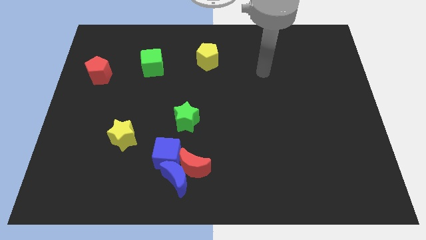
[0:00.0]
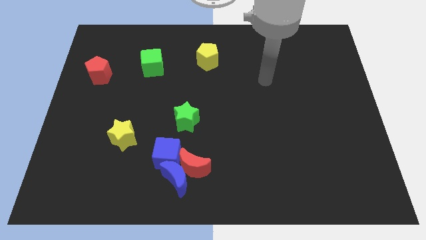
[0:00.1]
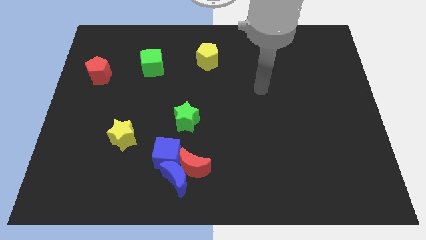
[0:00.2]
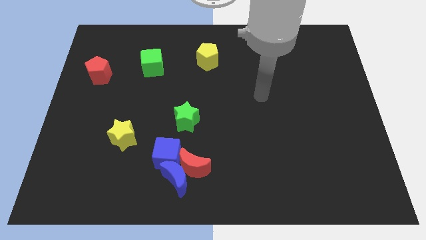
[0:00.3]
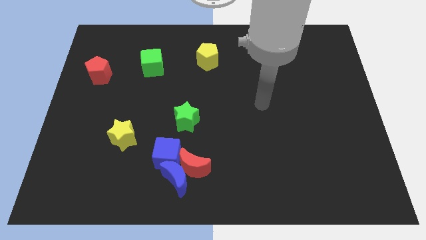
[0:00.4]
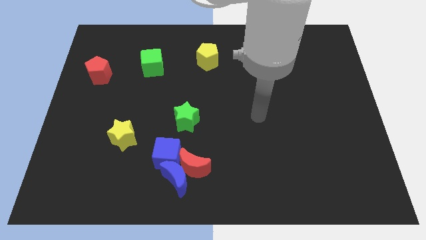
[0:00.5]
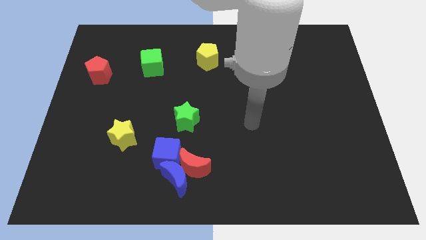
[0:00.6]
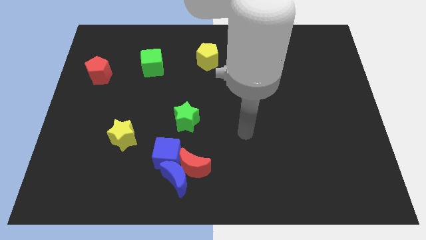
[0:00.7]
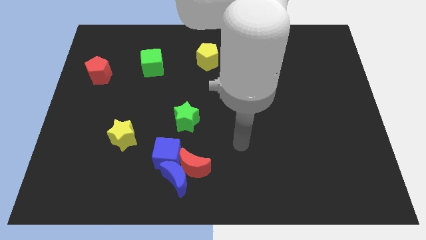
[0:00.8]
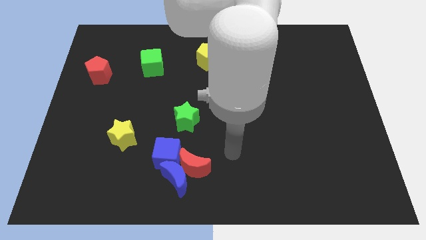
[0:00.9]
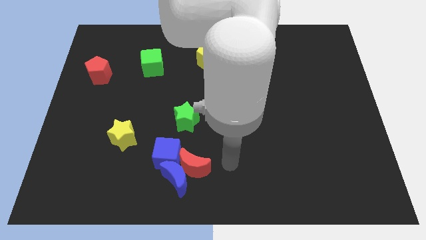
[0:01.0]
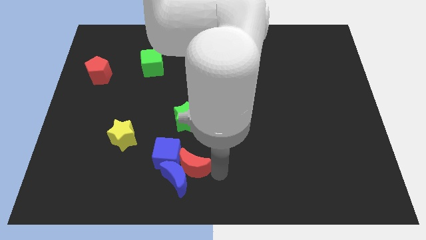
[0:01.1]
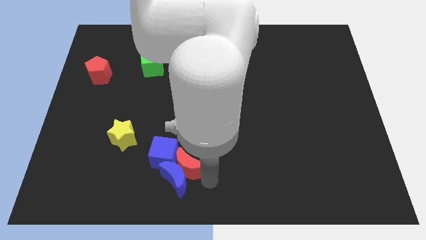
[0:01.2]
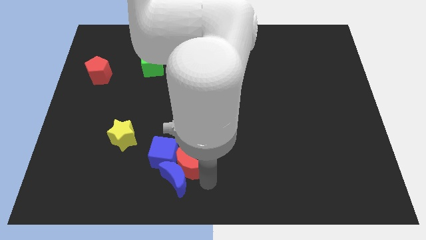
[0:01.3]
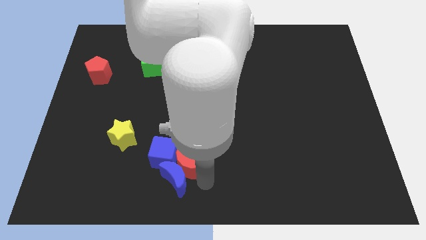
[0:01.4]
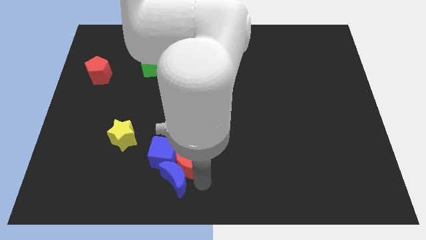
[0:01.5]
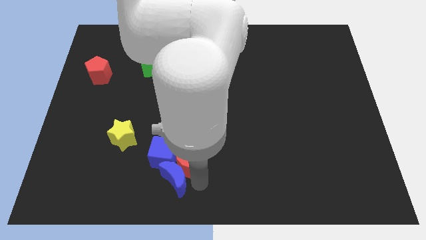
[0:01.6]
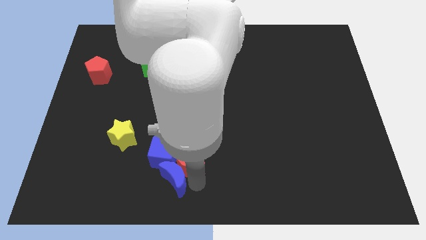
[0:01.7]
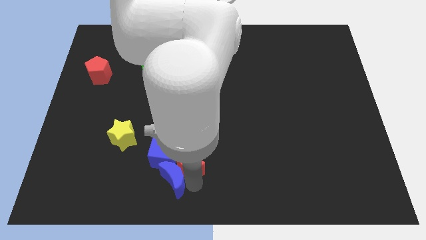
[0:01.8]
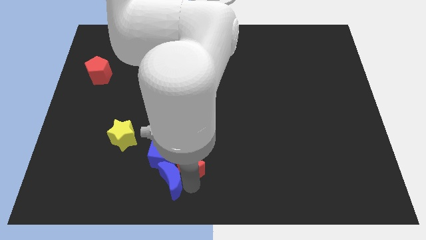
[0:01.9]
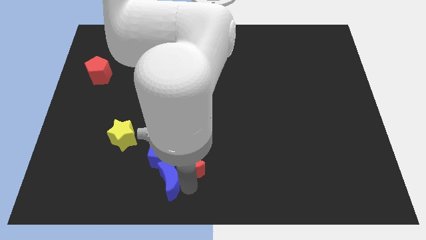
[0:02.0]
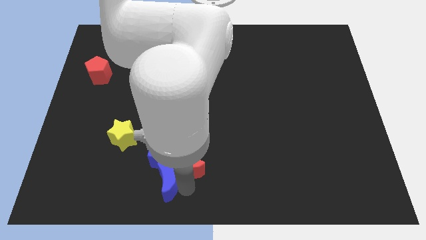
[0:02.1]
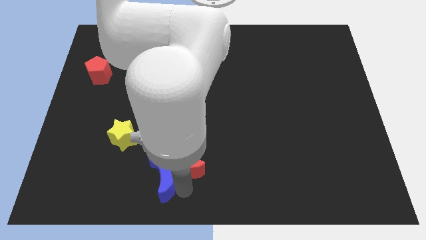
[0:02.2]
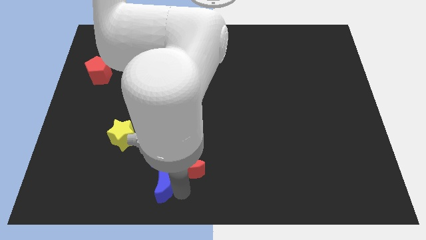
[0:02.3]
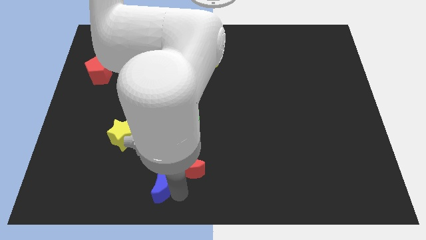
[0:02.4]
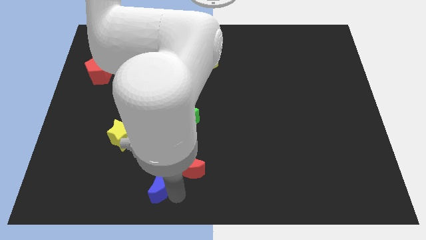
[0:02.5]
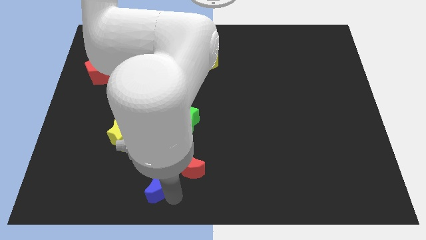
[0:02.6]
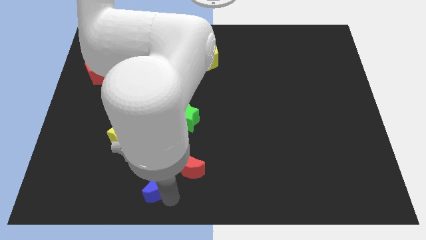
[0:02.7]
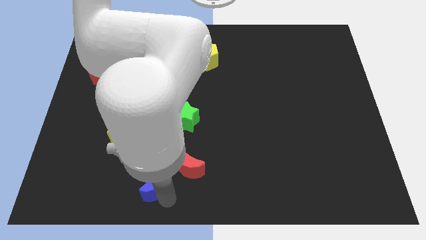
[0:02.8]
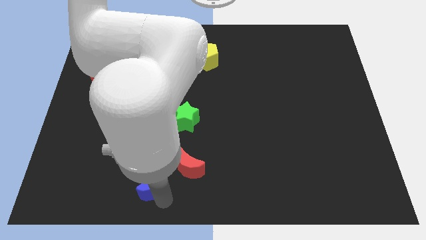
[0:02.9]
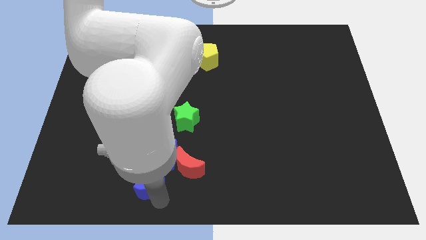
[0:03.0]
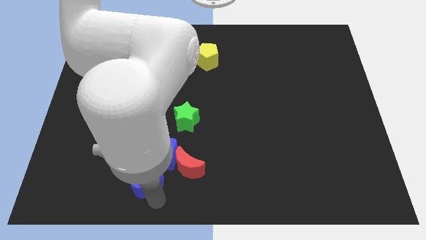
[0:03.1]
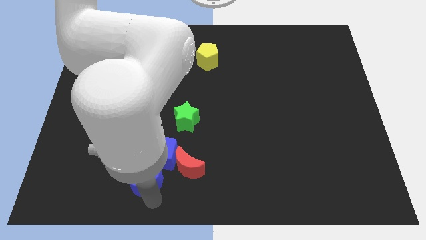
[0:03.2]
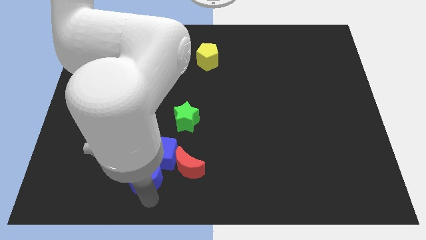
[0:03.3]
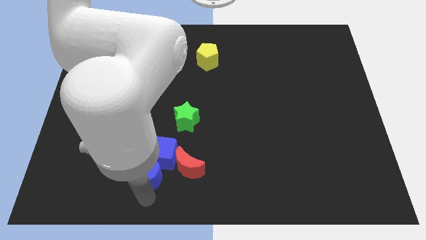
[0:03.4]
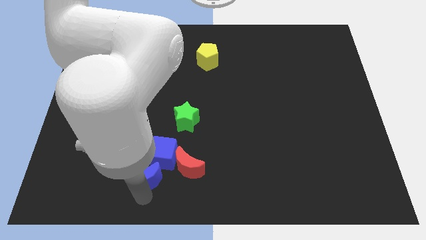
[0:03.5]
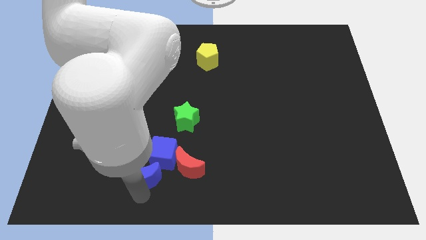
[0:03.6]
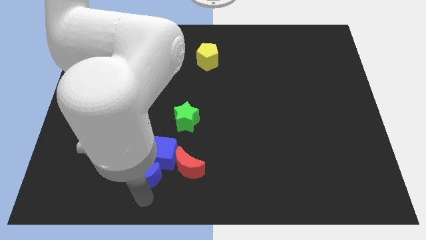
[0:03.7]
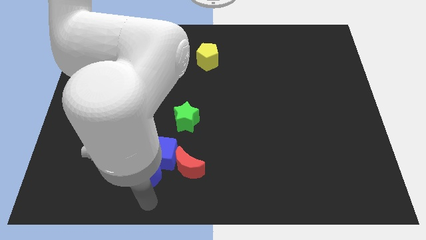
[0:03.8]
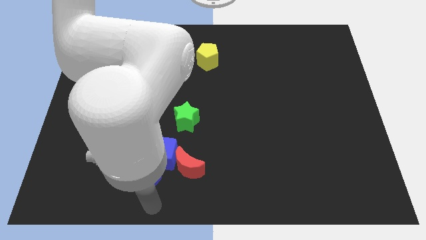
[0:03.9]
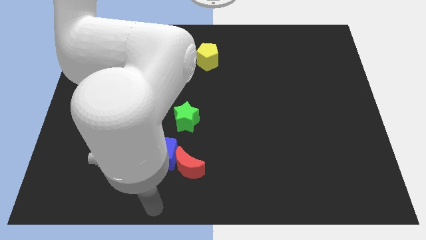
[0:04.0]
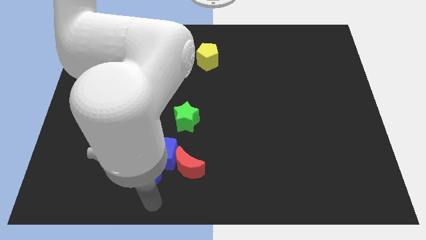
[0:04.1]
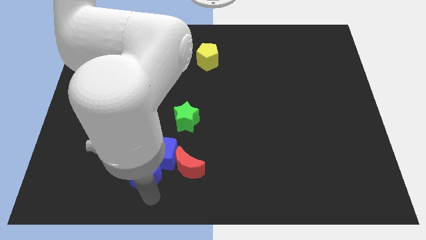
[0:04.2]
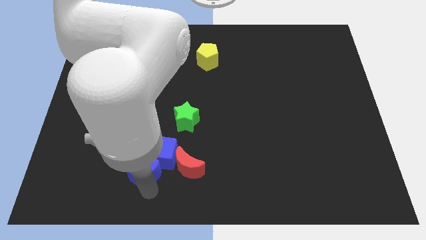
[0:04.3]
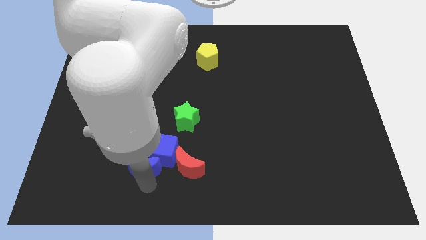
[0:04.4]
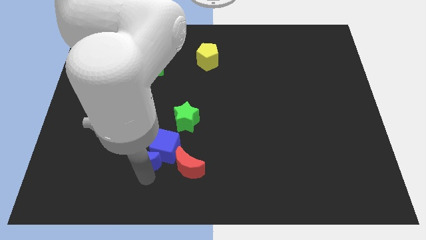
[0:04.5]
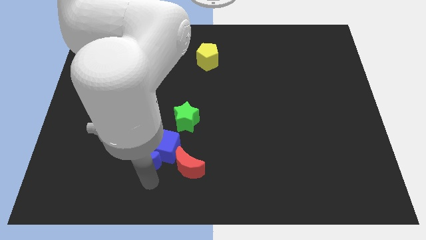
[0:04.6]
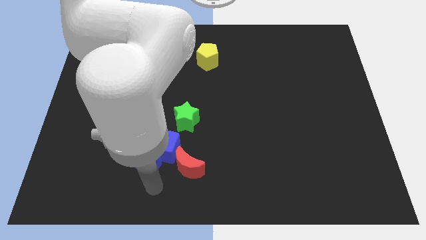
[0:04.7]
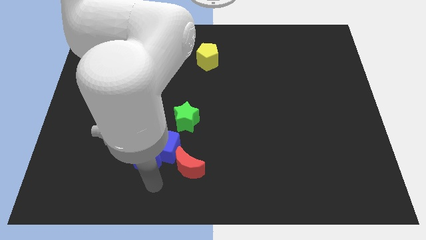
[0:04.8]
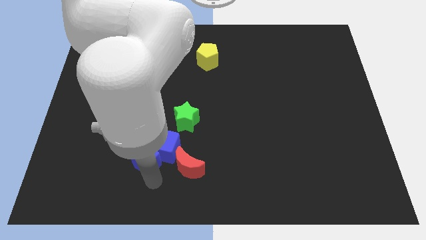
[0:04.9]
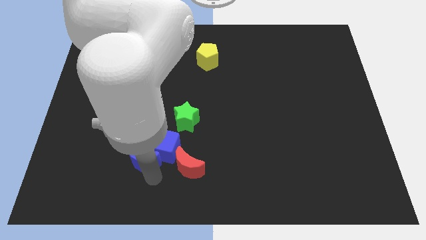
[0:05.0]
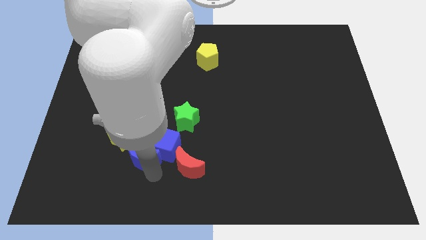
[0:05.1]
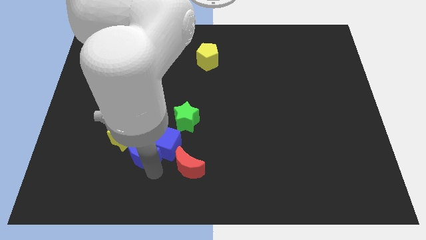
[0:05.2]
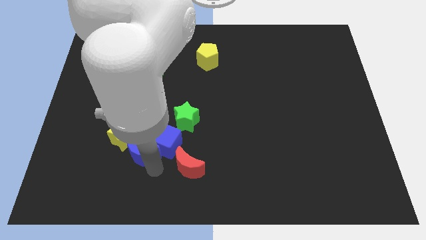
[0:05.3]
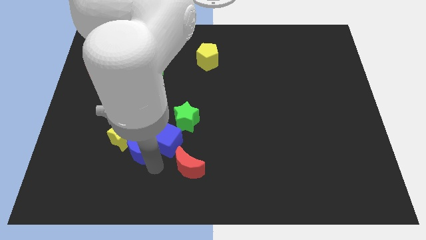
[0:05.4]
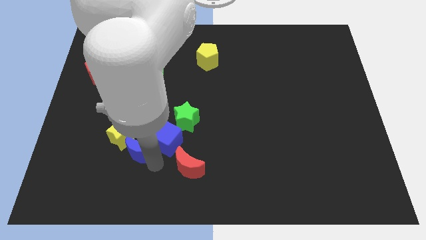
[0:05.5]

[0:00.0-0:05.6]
move the blue moon to the yellow star

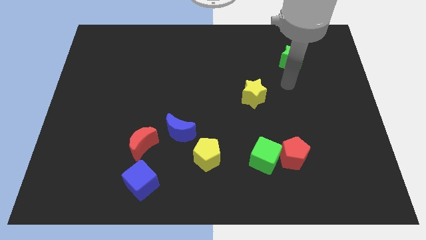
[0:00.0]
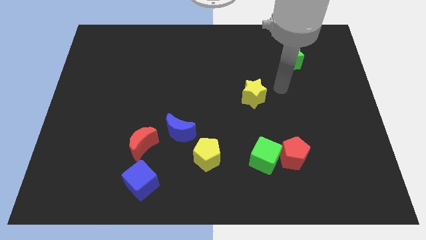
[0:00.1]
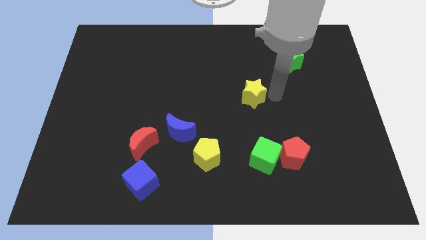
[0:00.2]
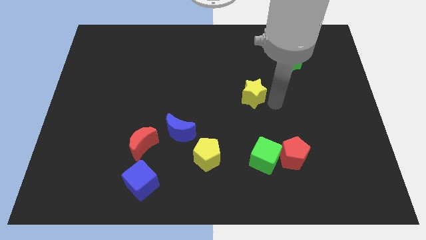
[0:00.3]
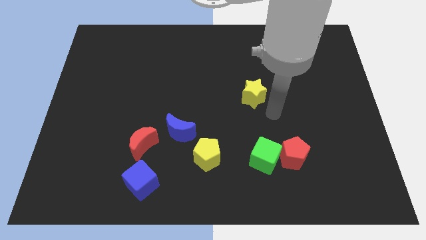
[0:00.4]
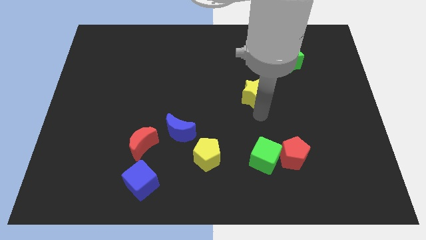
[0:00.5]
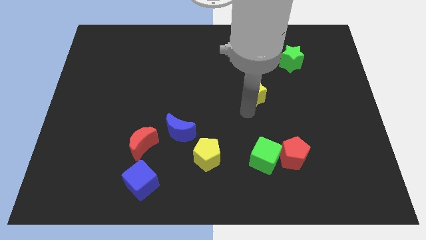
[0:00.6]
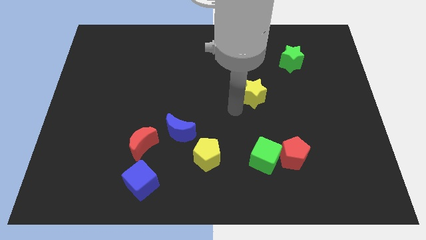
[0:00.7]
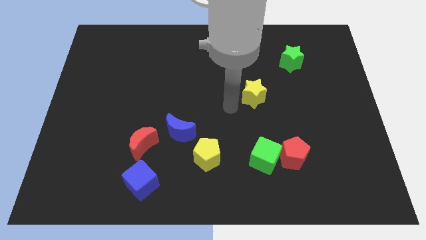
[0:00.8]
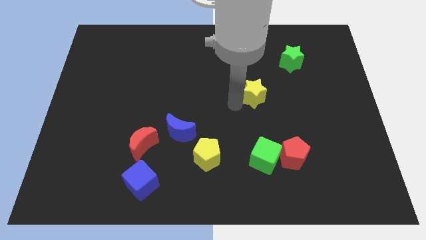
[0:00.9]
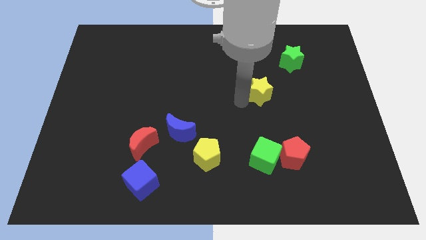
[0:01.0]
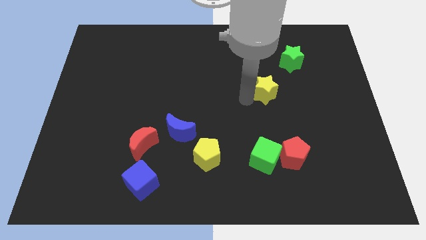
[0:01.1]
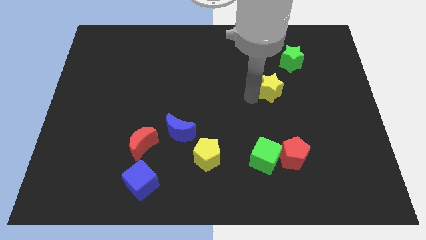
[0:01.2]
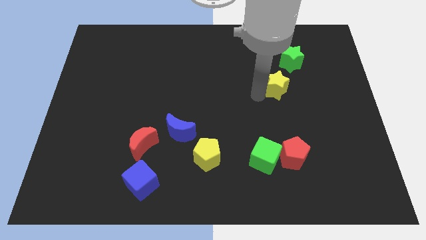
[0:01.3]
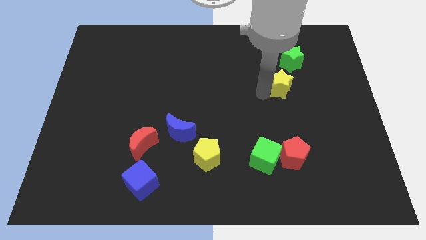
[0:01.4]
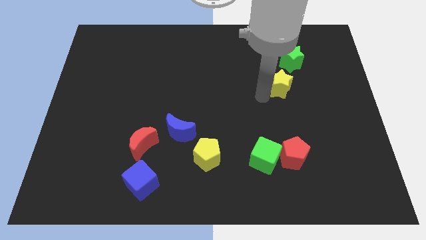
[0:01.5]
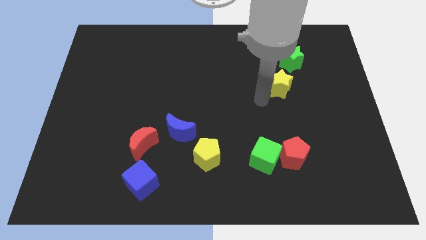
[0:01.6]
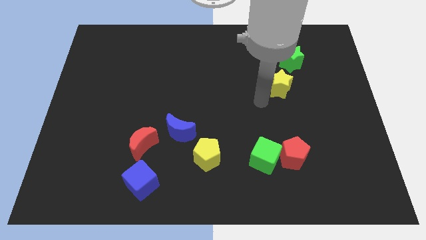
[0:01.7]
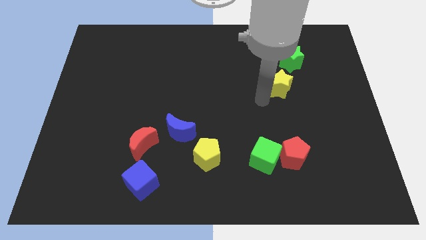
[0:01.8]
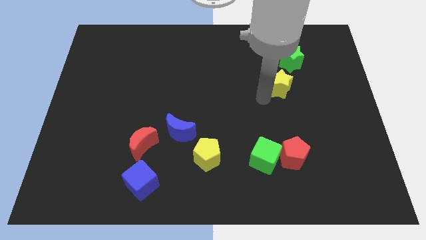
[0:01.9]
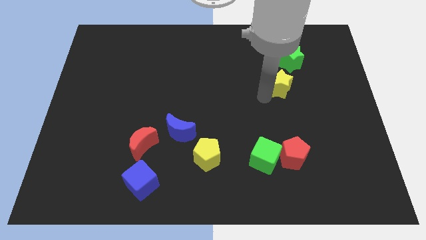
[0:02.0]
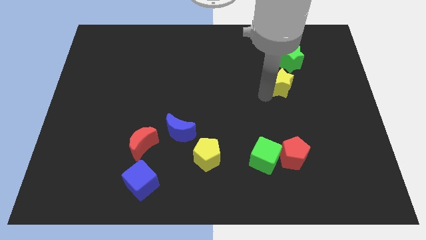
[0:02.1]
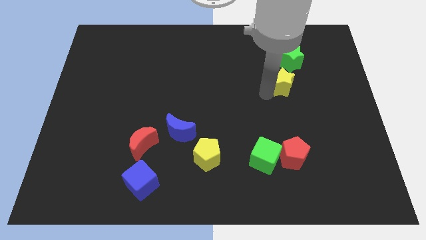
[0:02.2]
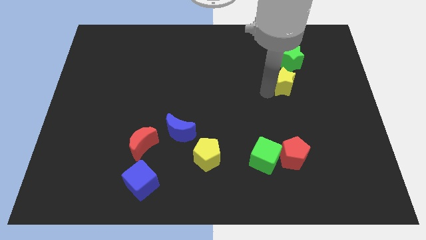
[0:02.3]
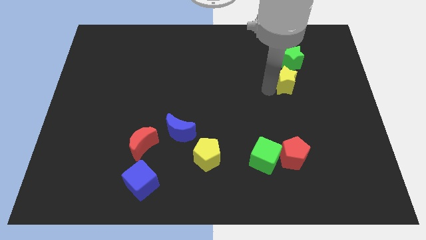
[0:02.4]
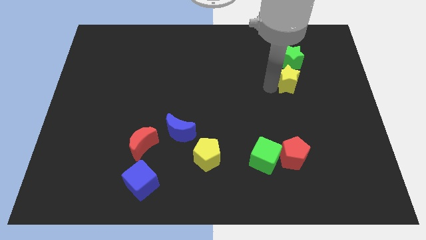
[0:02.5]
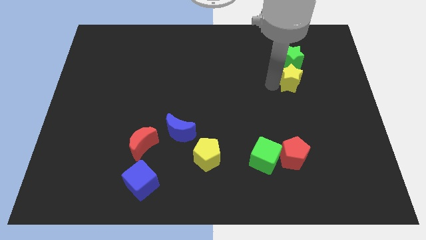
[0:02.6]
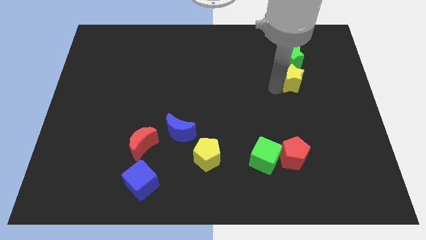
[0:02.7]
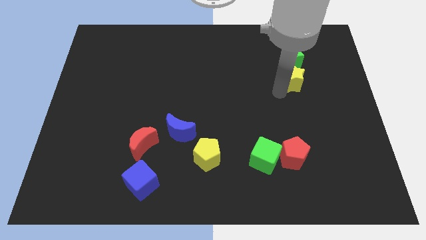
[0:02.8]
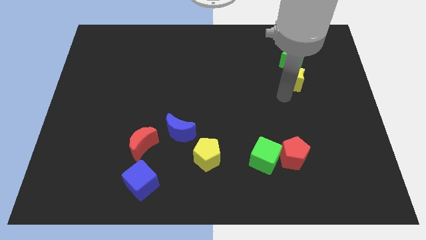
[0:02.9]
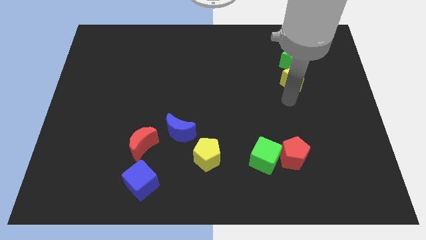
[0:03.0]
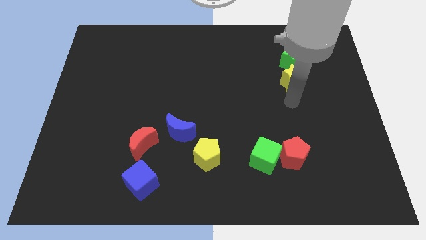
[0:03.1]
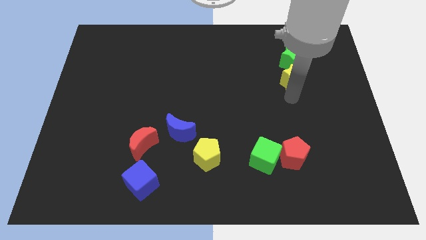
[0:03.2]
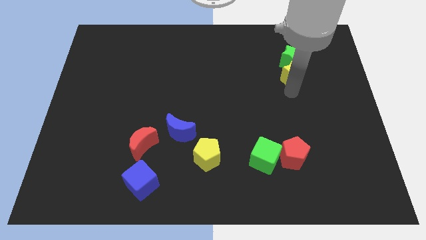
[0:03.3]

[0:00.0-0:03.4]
put the yellow star next to the green star
